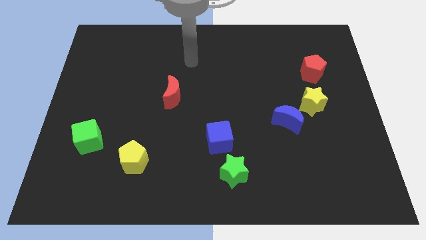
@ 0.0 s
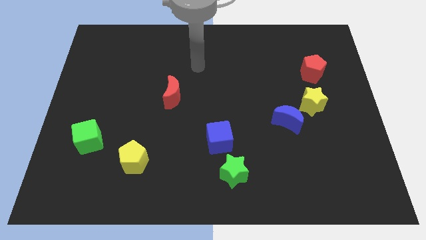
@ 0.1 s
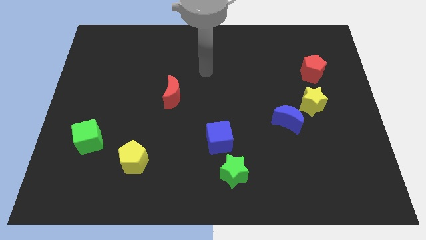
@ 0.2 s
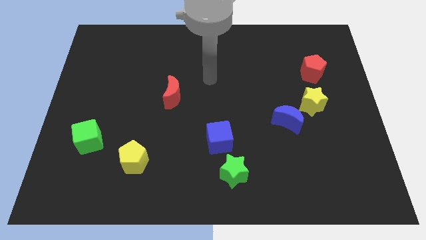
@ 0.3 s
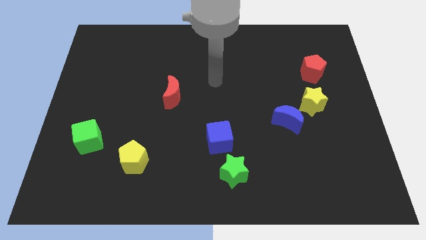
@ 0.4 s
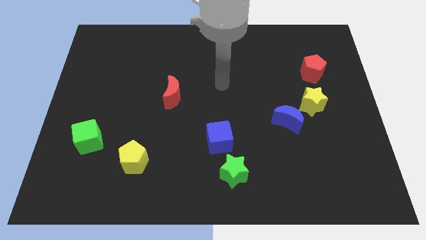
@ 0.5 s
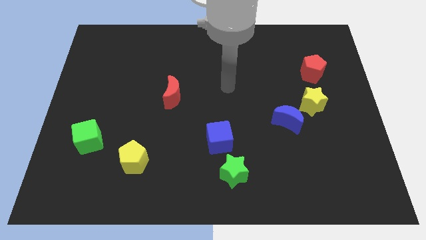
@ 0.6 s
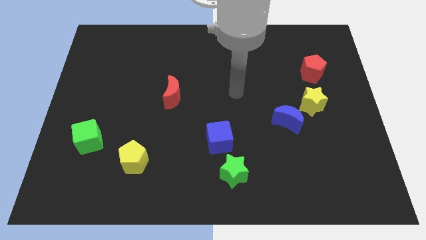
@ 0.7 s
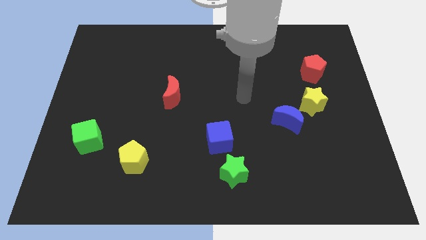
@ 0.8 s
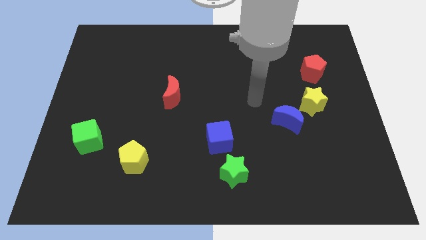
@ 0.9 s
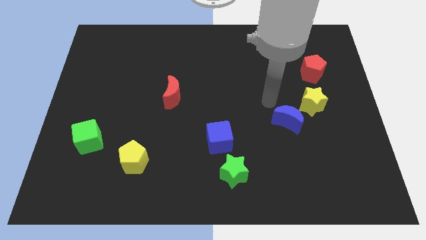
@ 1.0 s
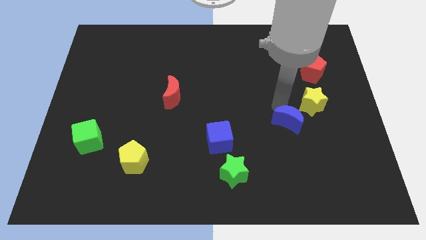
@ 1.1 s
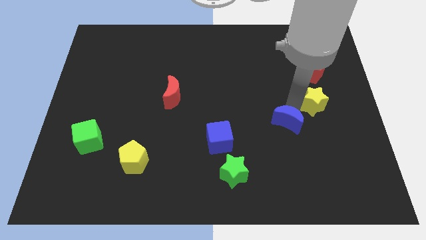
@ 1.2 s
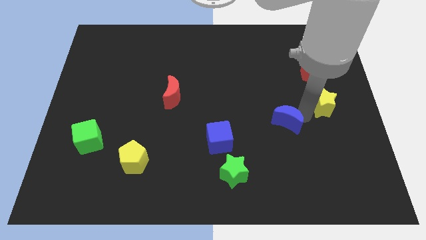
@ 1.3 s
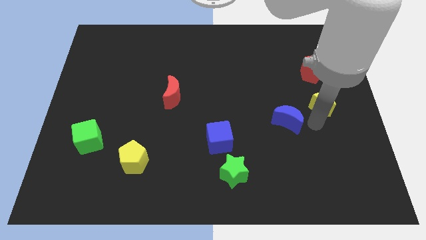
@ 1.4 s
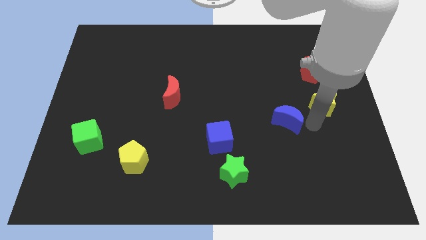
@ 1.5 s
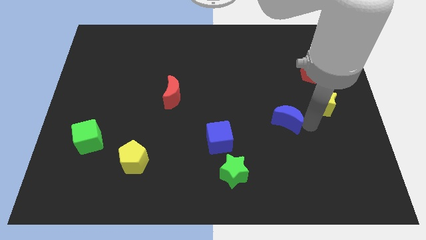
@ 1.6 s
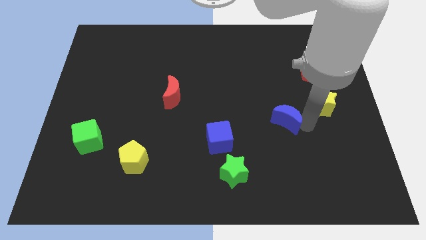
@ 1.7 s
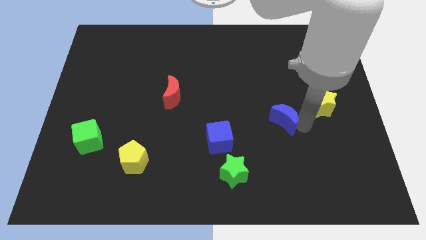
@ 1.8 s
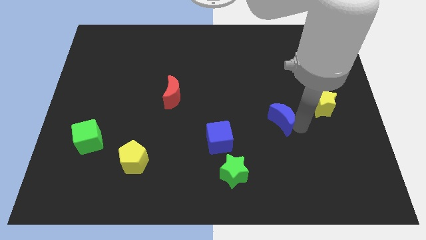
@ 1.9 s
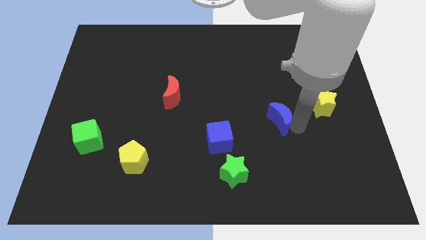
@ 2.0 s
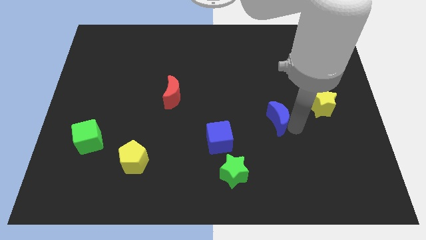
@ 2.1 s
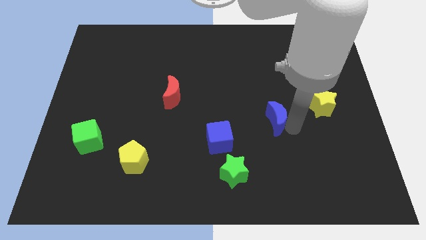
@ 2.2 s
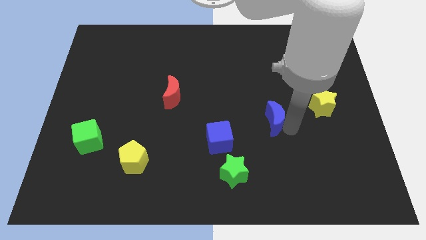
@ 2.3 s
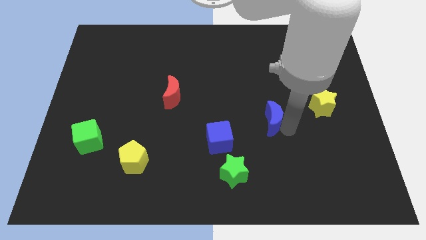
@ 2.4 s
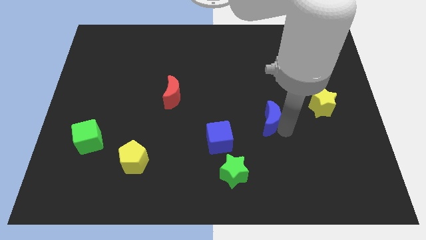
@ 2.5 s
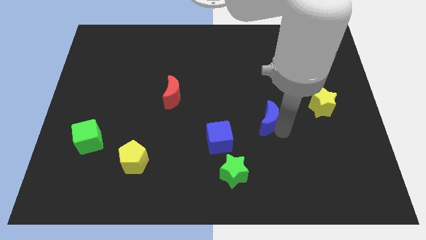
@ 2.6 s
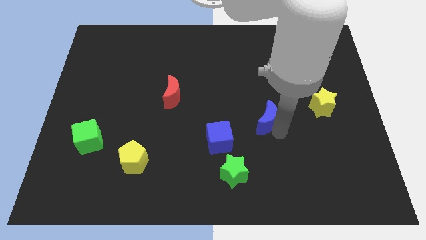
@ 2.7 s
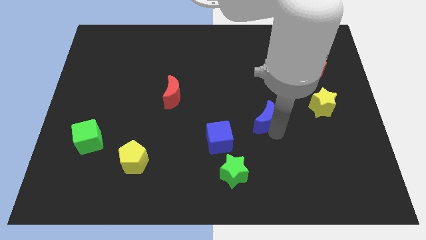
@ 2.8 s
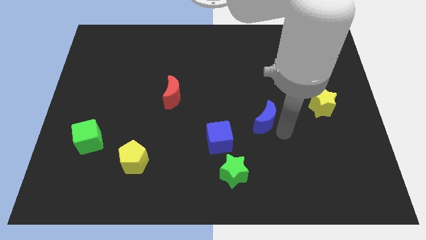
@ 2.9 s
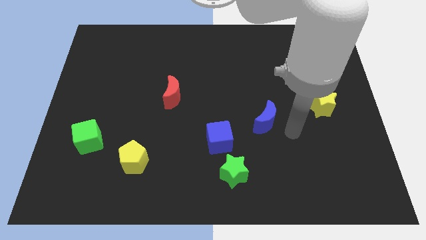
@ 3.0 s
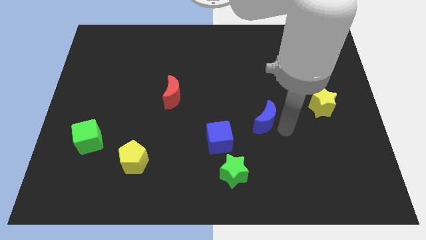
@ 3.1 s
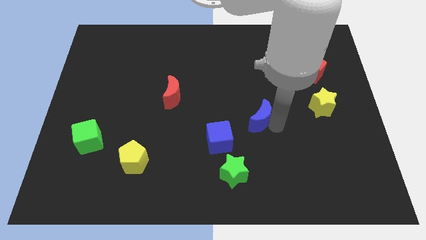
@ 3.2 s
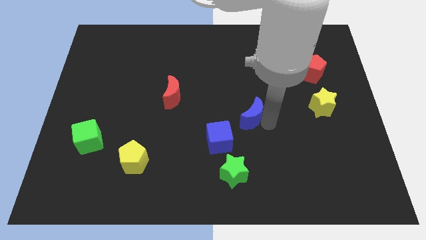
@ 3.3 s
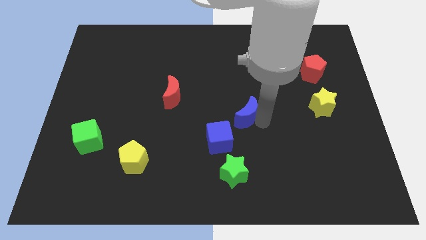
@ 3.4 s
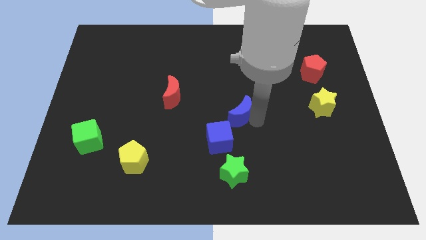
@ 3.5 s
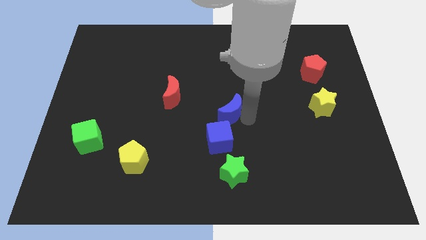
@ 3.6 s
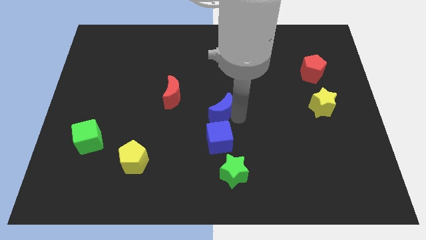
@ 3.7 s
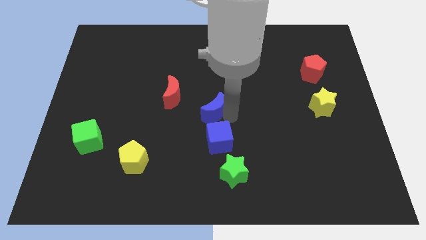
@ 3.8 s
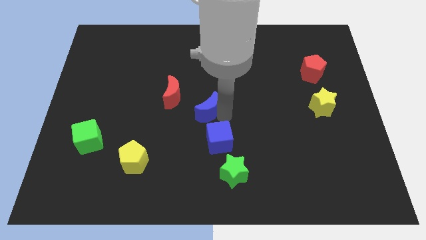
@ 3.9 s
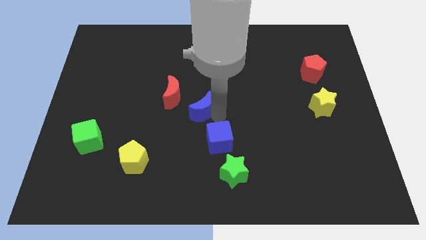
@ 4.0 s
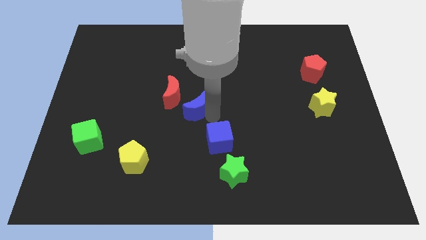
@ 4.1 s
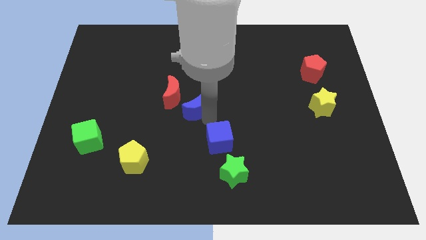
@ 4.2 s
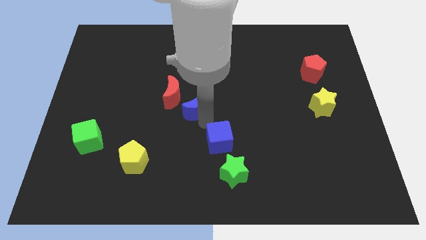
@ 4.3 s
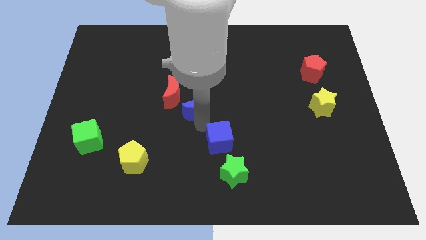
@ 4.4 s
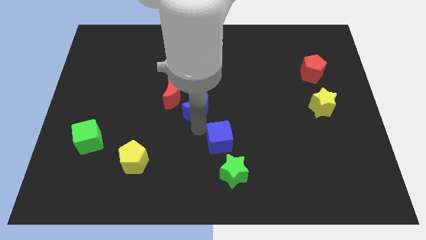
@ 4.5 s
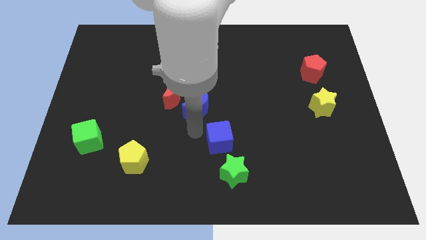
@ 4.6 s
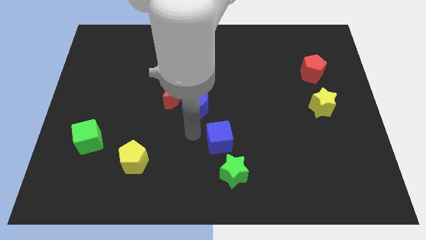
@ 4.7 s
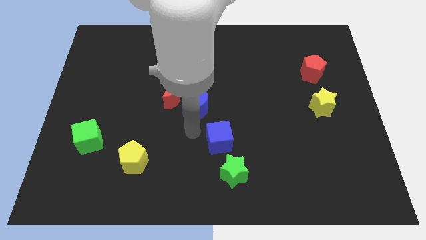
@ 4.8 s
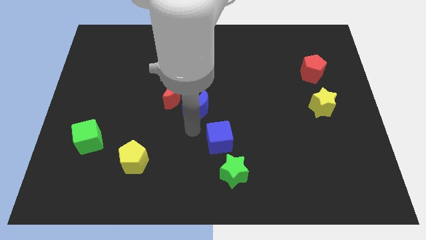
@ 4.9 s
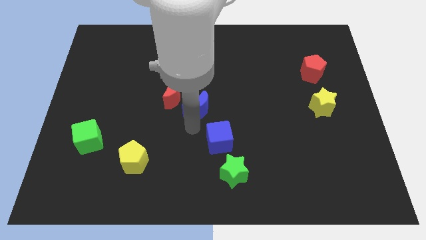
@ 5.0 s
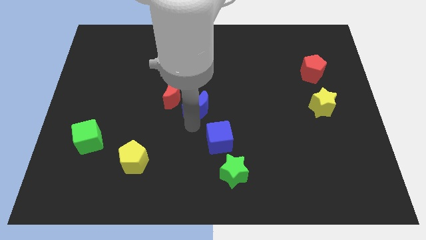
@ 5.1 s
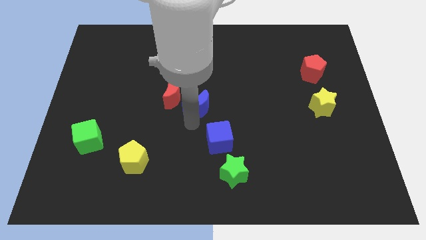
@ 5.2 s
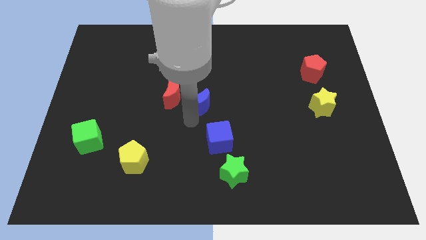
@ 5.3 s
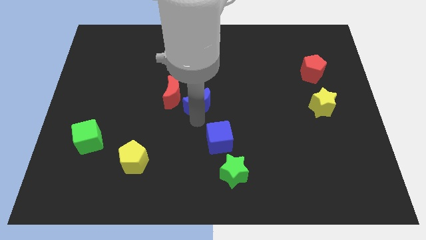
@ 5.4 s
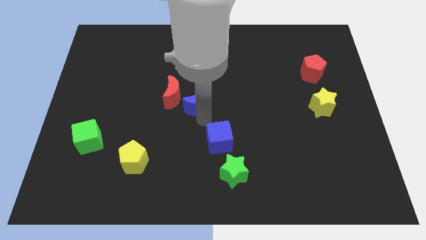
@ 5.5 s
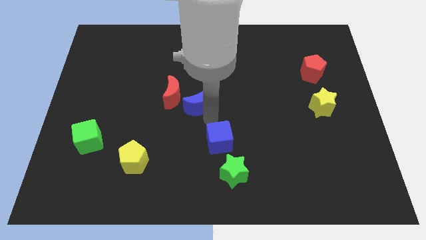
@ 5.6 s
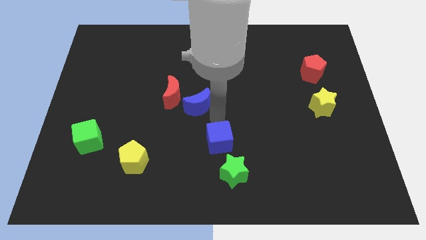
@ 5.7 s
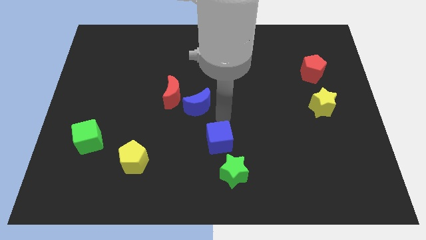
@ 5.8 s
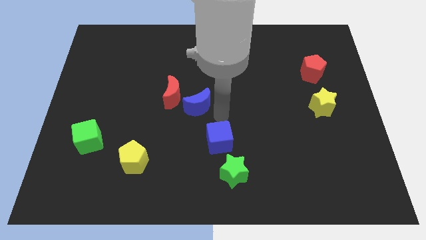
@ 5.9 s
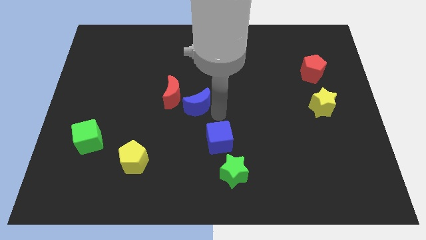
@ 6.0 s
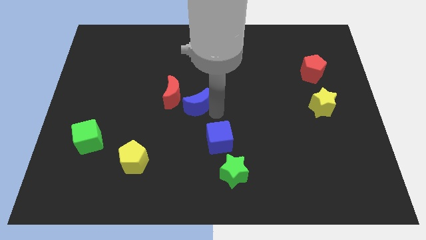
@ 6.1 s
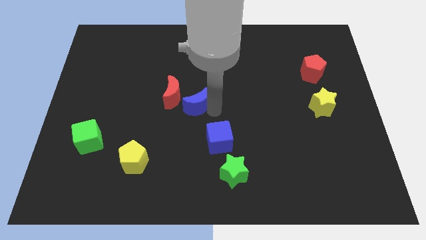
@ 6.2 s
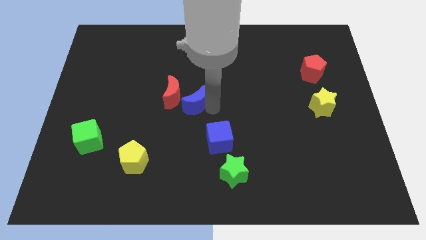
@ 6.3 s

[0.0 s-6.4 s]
push the blue moon close to the red moon
